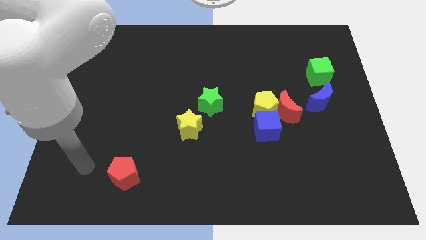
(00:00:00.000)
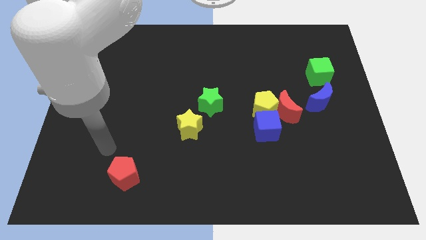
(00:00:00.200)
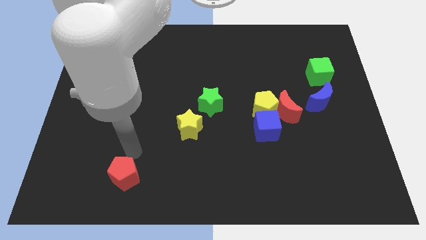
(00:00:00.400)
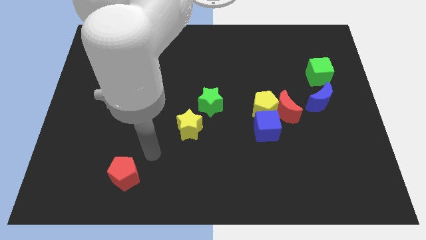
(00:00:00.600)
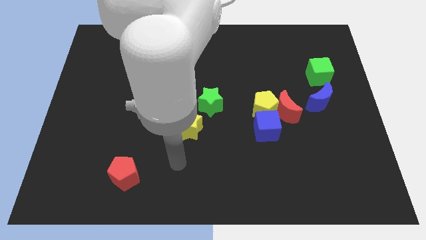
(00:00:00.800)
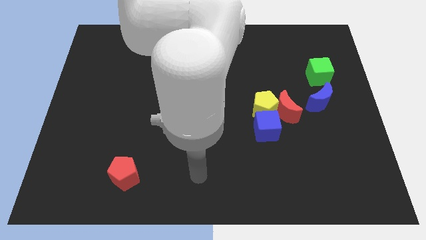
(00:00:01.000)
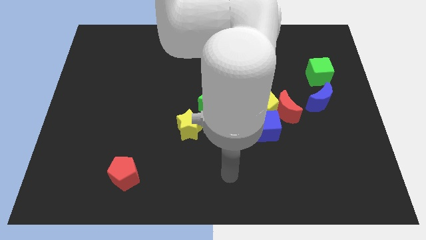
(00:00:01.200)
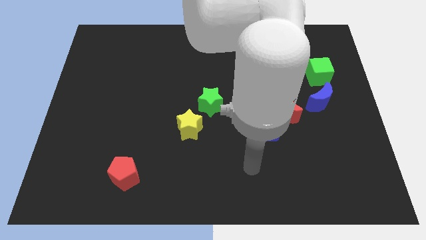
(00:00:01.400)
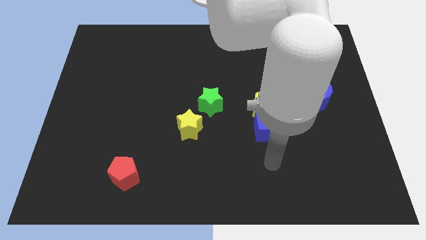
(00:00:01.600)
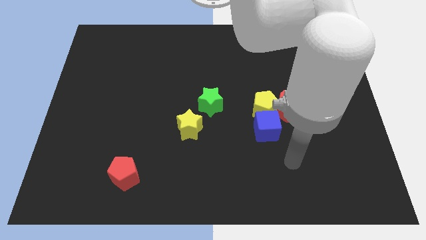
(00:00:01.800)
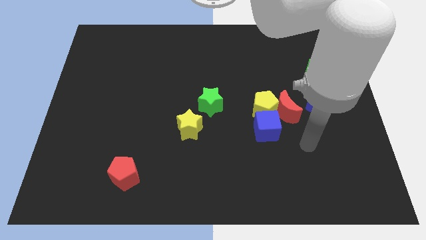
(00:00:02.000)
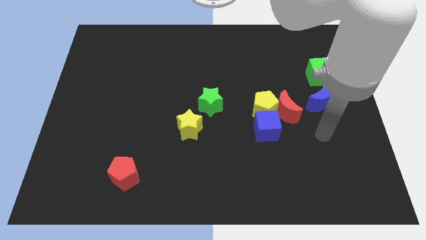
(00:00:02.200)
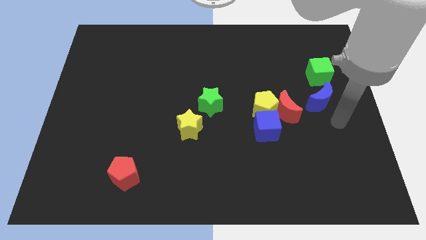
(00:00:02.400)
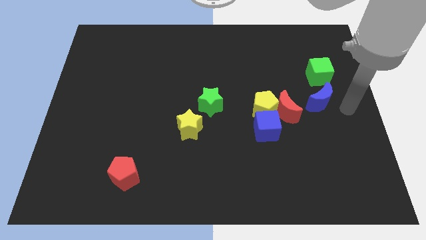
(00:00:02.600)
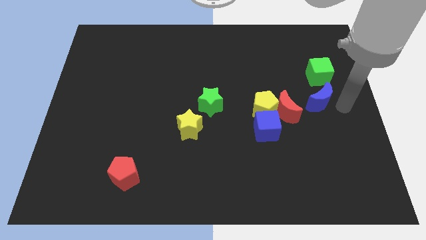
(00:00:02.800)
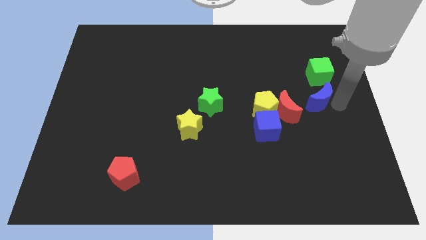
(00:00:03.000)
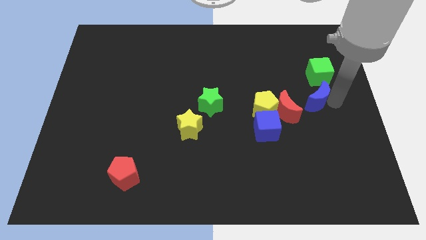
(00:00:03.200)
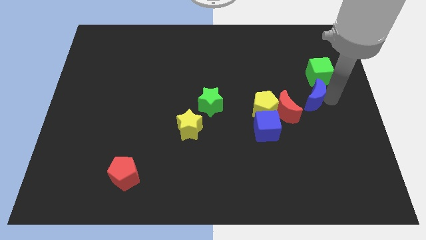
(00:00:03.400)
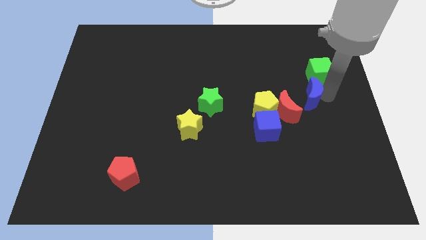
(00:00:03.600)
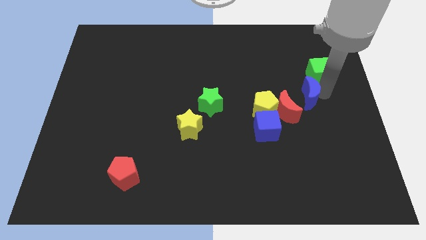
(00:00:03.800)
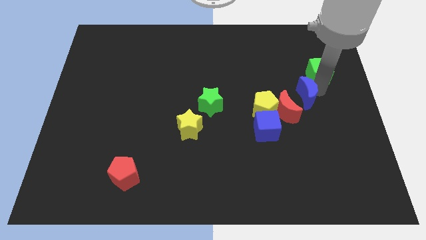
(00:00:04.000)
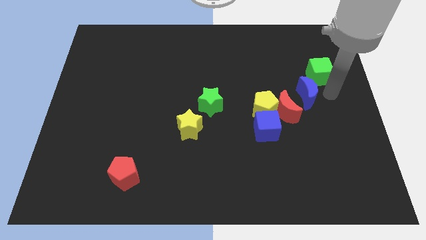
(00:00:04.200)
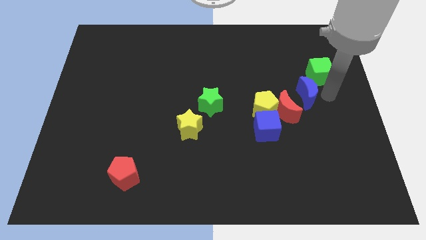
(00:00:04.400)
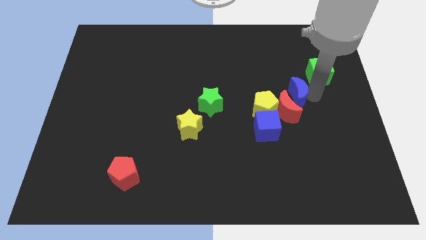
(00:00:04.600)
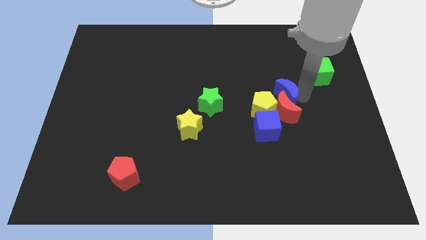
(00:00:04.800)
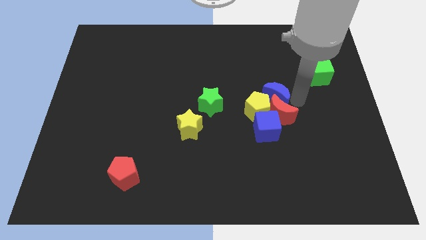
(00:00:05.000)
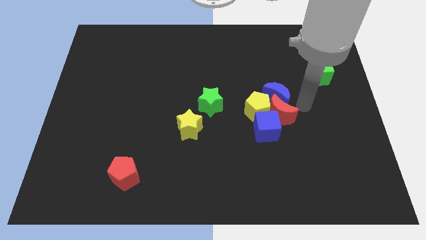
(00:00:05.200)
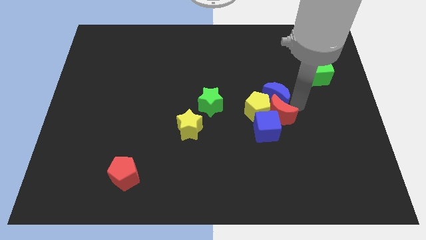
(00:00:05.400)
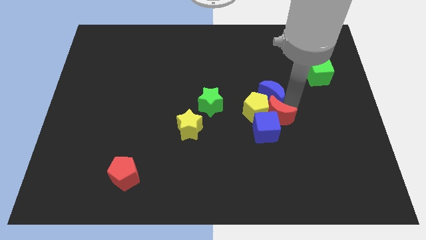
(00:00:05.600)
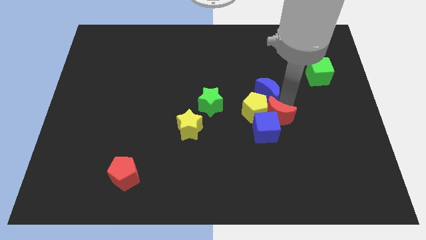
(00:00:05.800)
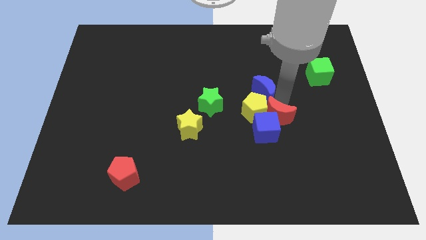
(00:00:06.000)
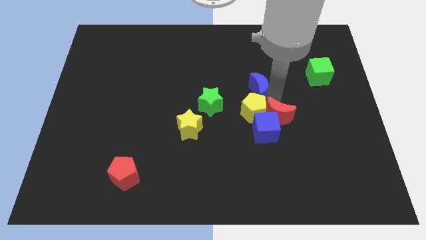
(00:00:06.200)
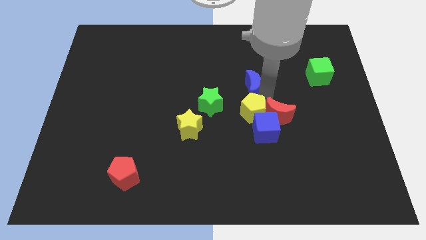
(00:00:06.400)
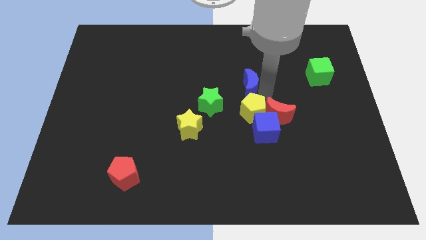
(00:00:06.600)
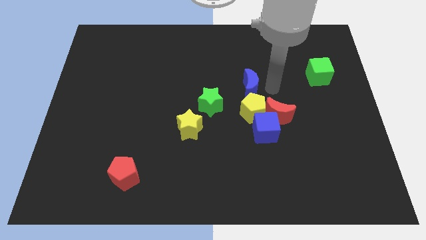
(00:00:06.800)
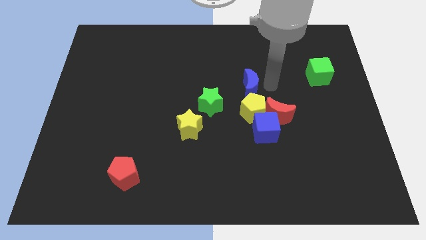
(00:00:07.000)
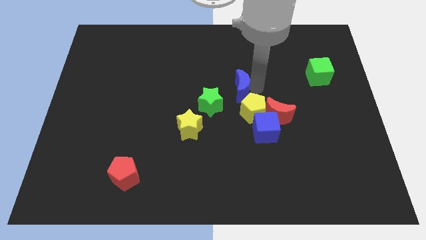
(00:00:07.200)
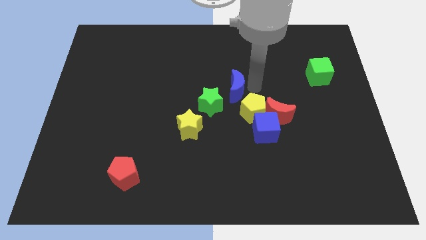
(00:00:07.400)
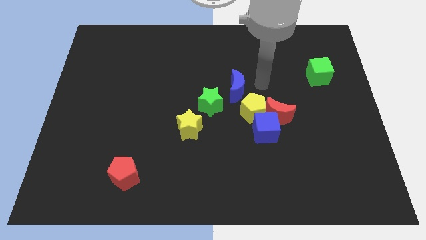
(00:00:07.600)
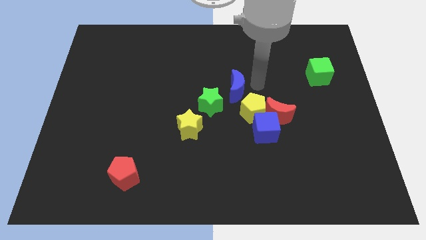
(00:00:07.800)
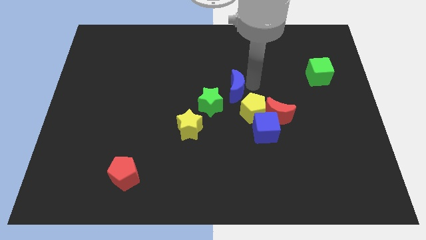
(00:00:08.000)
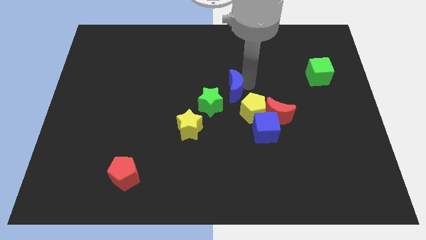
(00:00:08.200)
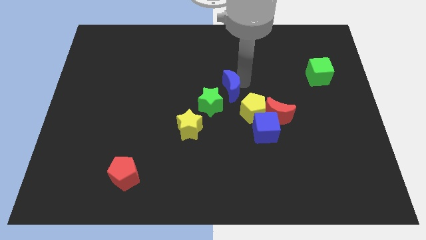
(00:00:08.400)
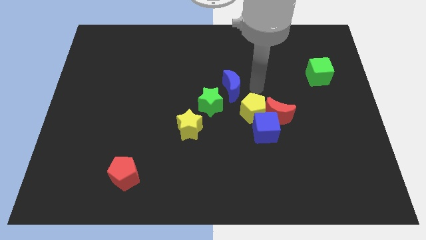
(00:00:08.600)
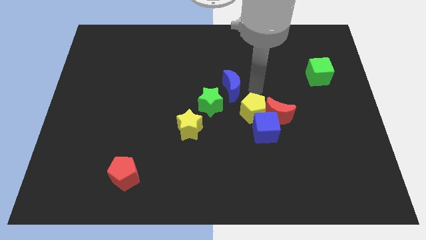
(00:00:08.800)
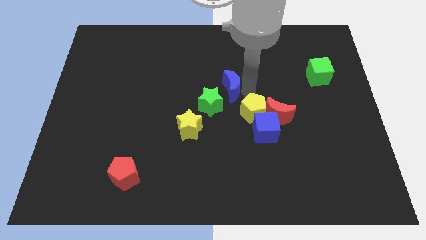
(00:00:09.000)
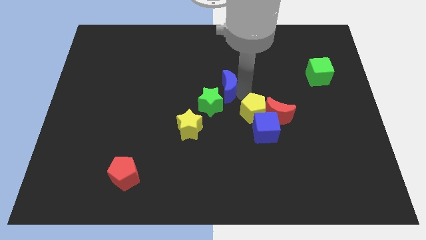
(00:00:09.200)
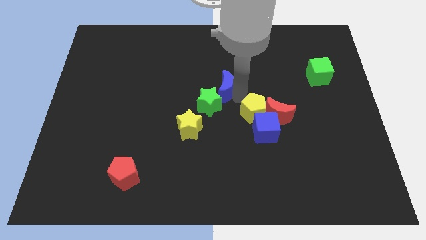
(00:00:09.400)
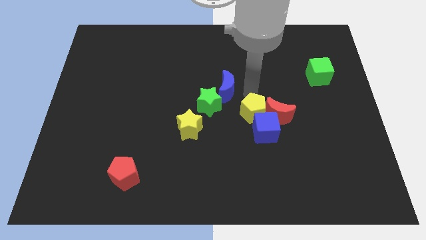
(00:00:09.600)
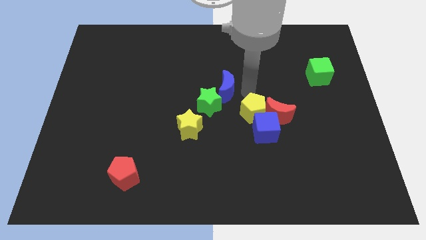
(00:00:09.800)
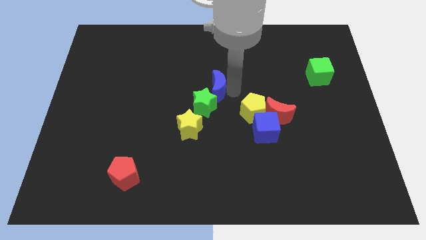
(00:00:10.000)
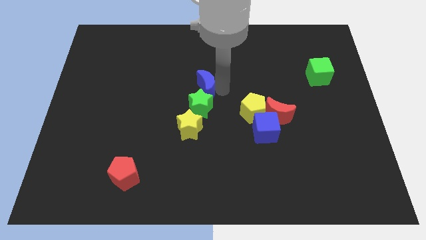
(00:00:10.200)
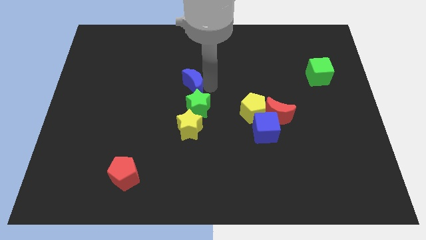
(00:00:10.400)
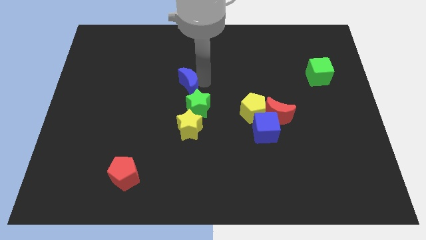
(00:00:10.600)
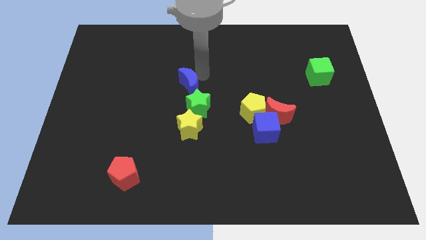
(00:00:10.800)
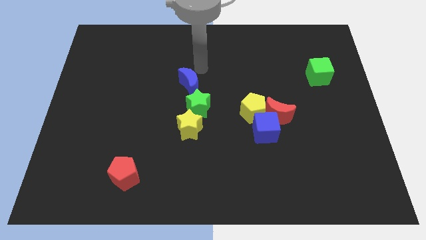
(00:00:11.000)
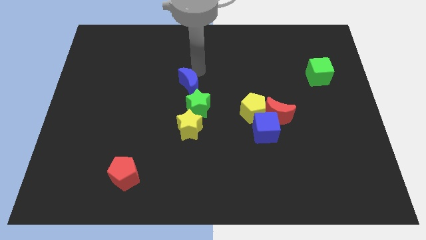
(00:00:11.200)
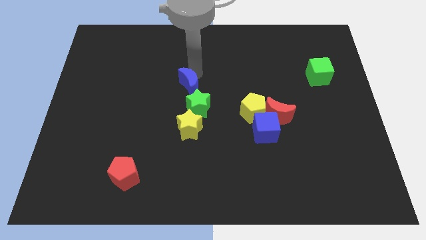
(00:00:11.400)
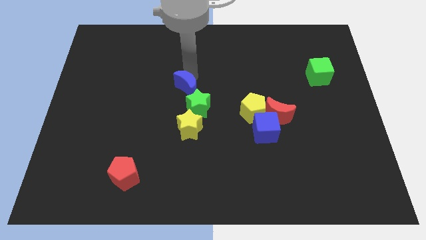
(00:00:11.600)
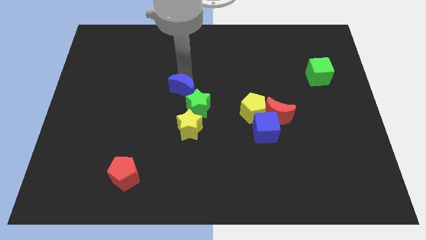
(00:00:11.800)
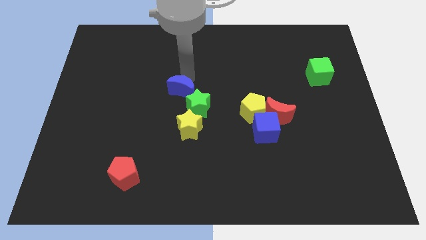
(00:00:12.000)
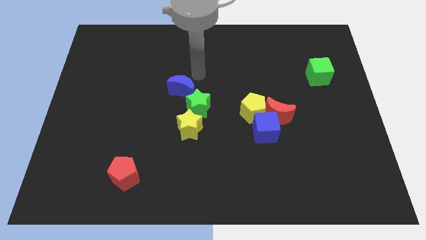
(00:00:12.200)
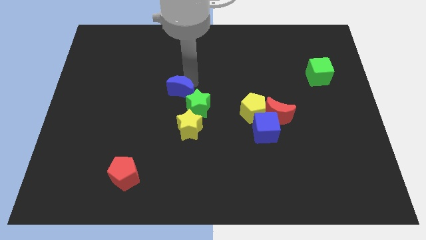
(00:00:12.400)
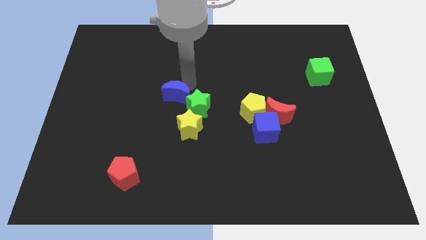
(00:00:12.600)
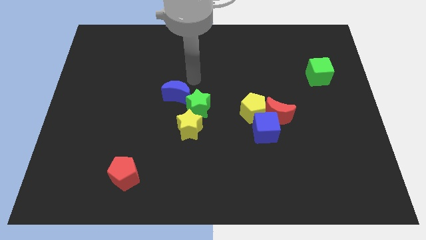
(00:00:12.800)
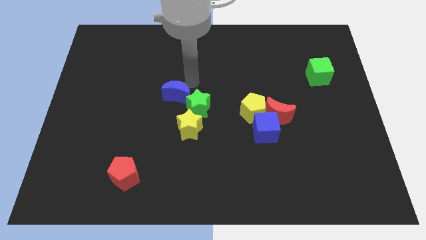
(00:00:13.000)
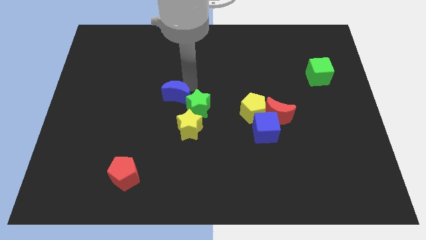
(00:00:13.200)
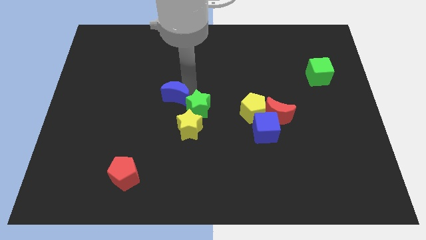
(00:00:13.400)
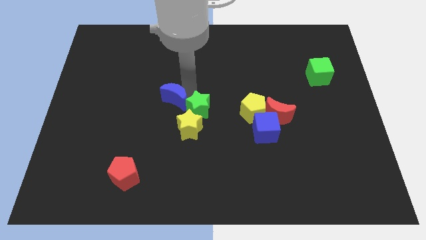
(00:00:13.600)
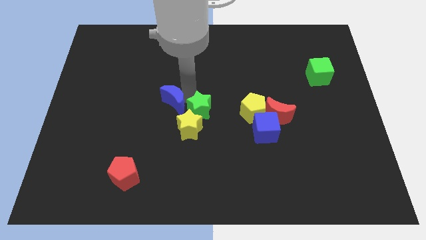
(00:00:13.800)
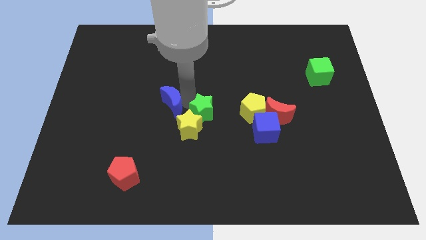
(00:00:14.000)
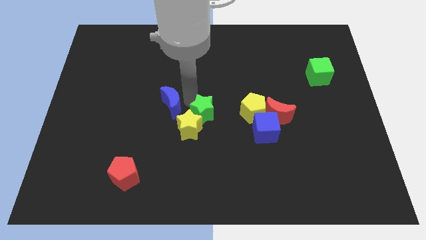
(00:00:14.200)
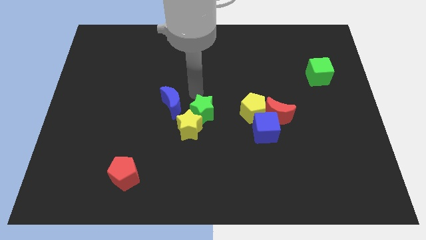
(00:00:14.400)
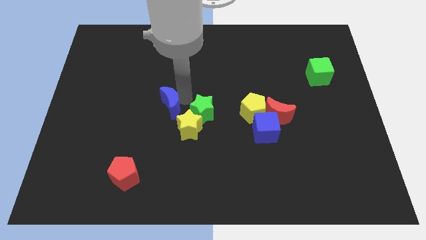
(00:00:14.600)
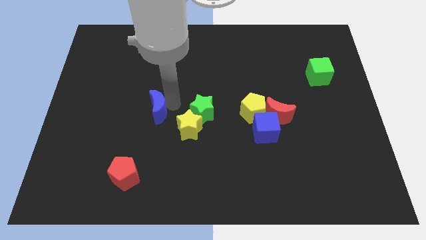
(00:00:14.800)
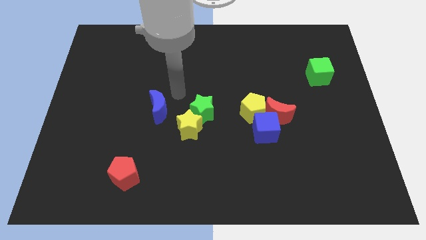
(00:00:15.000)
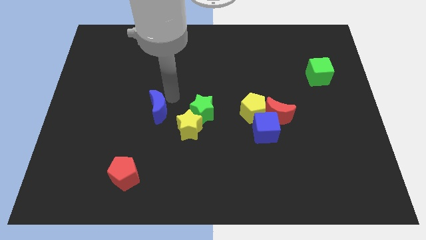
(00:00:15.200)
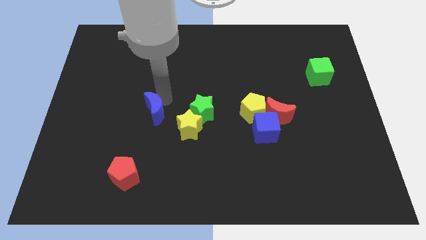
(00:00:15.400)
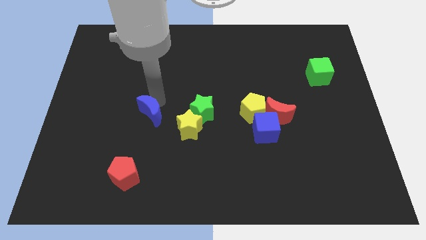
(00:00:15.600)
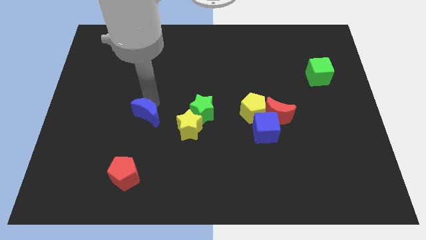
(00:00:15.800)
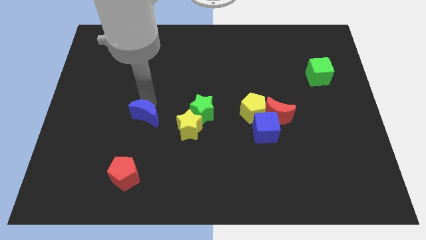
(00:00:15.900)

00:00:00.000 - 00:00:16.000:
move the blue moon to the top of the red pentagon
